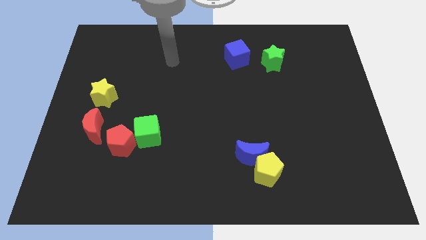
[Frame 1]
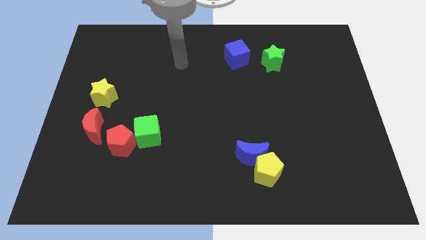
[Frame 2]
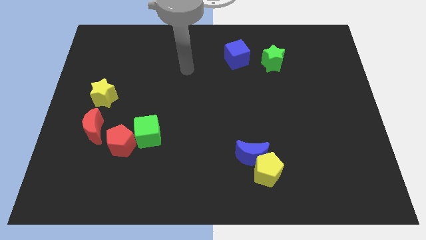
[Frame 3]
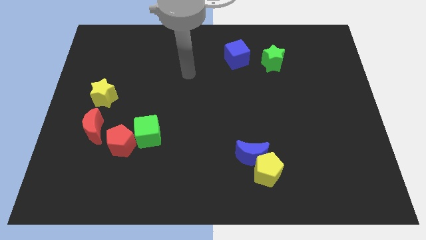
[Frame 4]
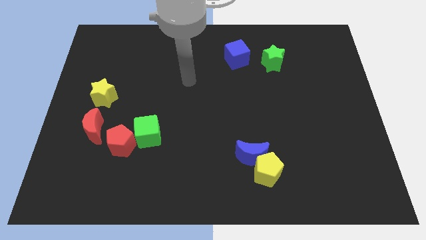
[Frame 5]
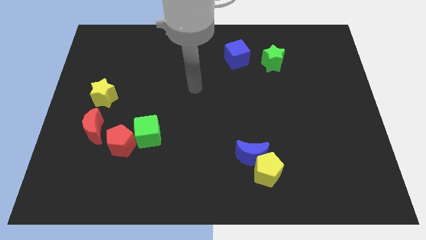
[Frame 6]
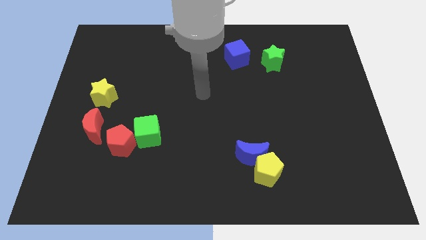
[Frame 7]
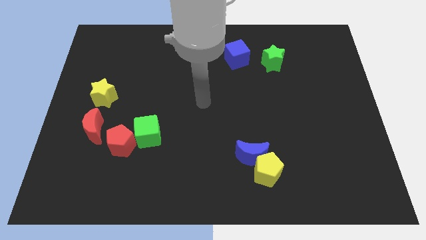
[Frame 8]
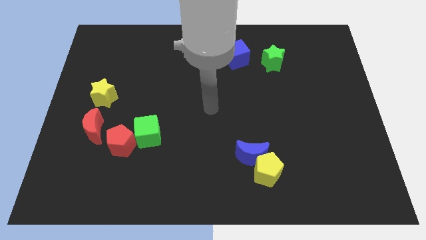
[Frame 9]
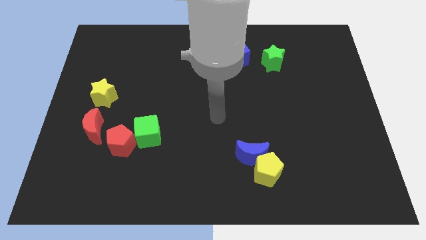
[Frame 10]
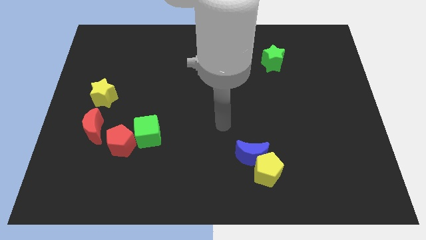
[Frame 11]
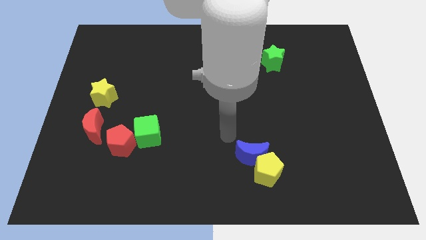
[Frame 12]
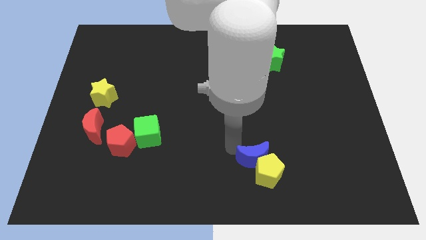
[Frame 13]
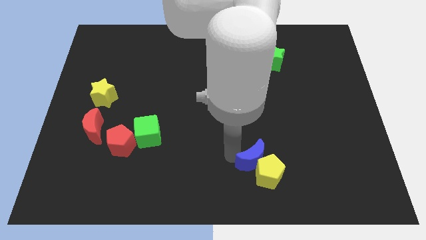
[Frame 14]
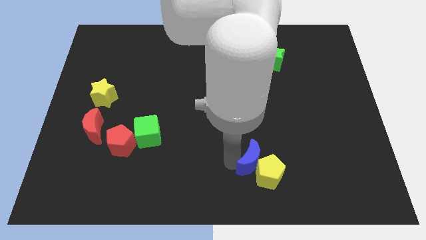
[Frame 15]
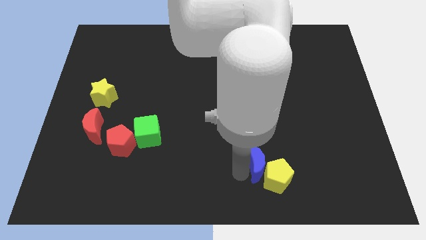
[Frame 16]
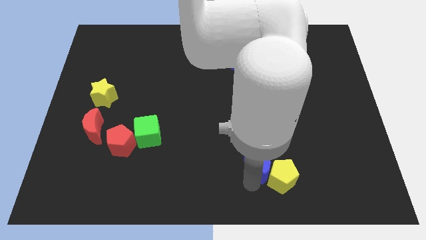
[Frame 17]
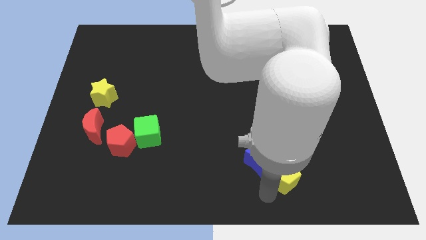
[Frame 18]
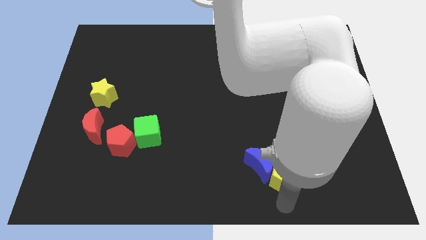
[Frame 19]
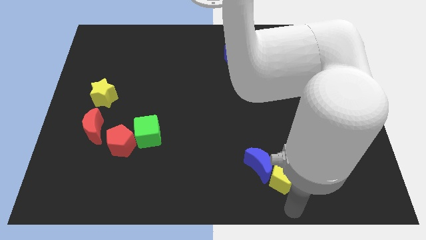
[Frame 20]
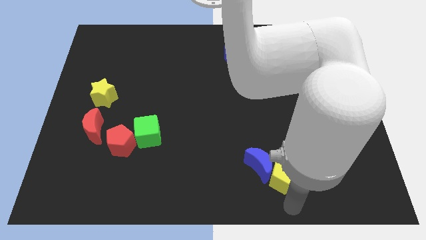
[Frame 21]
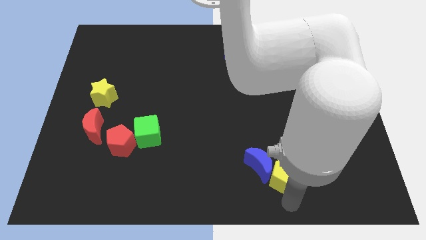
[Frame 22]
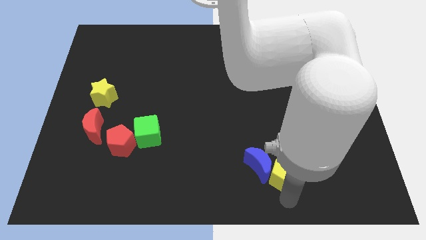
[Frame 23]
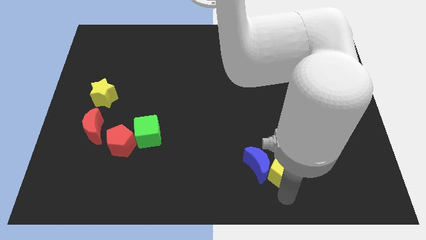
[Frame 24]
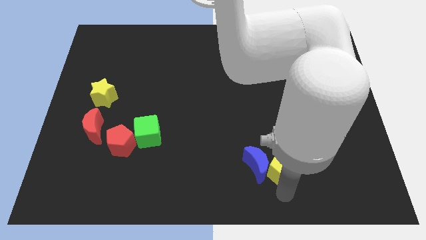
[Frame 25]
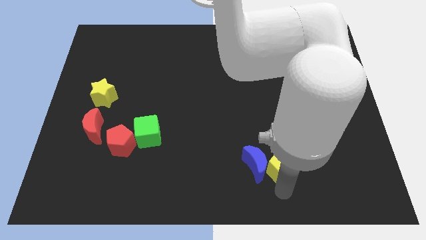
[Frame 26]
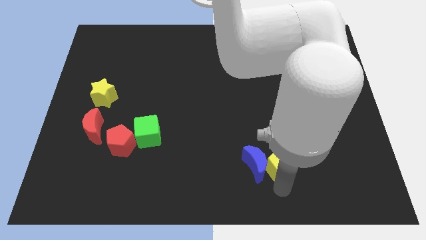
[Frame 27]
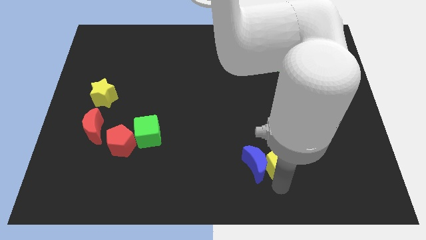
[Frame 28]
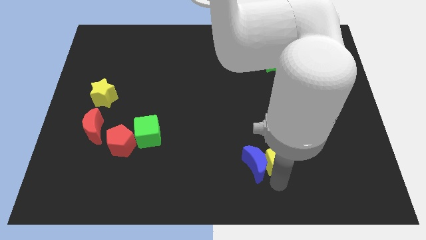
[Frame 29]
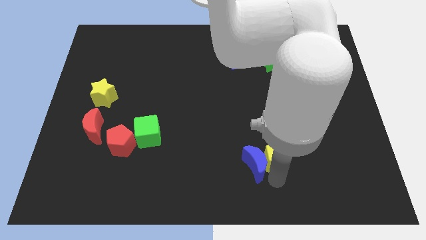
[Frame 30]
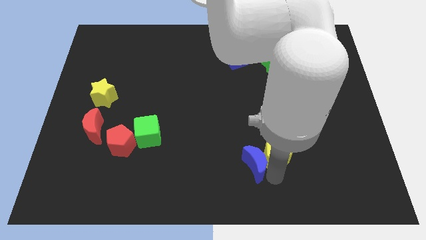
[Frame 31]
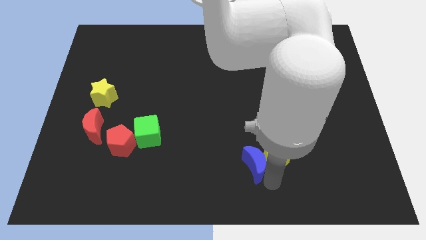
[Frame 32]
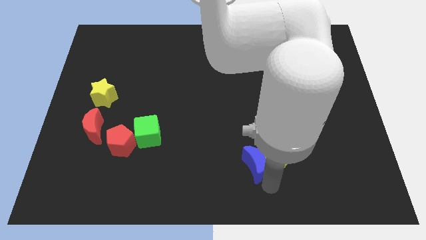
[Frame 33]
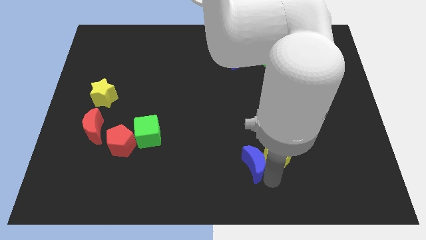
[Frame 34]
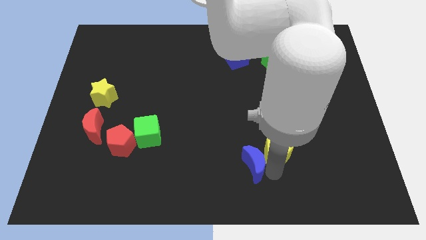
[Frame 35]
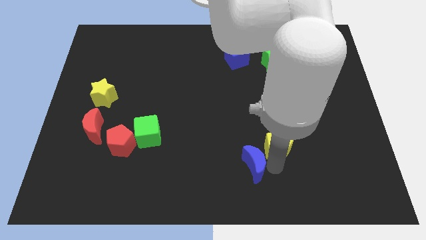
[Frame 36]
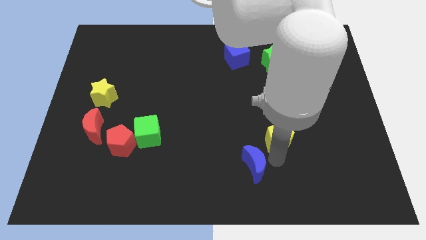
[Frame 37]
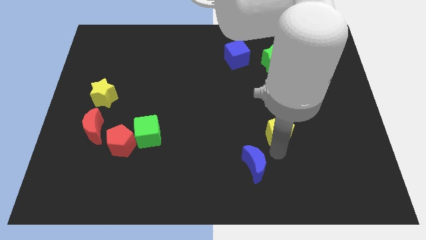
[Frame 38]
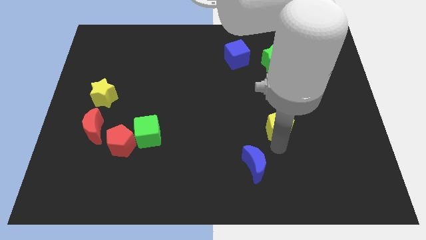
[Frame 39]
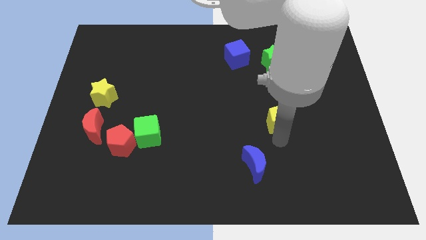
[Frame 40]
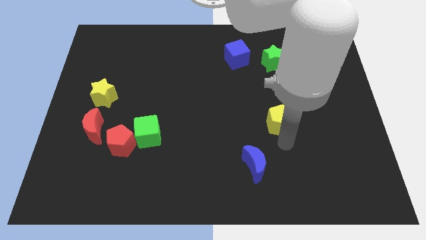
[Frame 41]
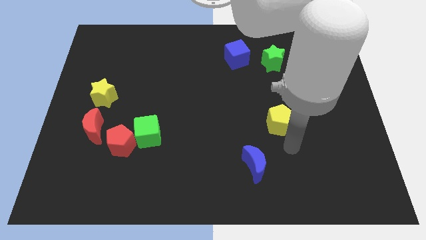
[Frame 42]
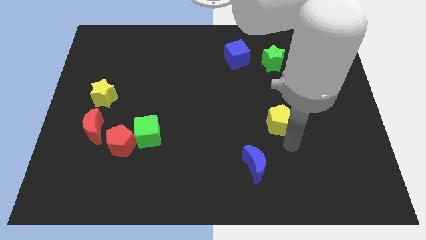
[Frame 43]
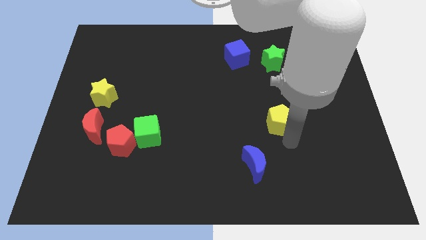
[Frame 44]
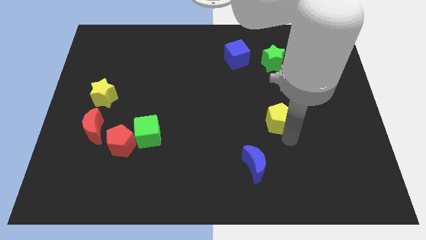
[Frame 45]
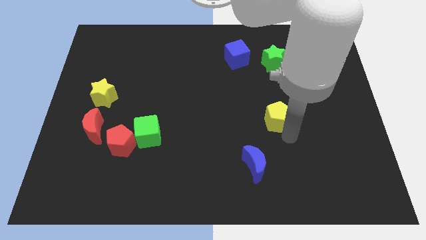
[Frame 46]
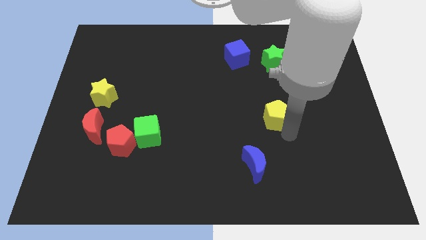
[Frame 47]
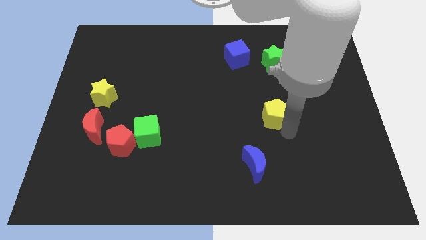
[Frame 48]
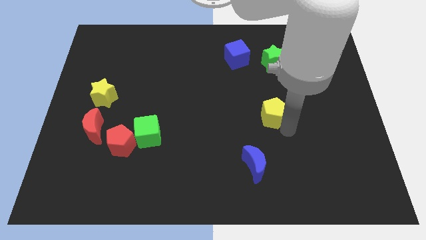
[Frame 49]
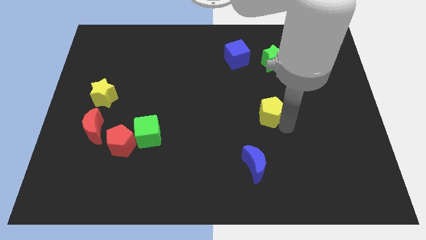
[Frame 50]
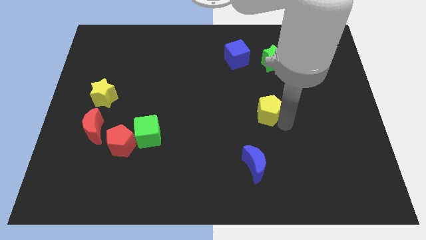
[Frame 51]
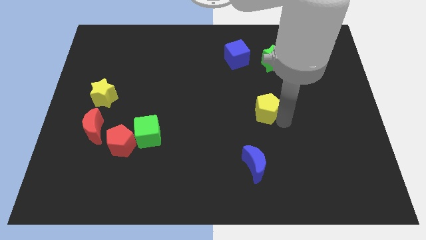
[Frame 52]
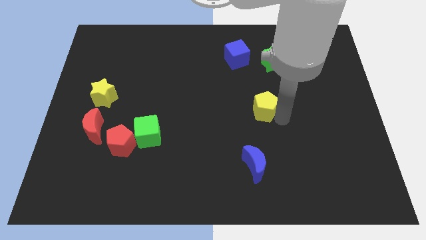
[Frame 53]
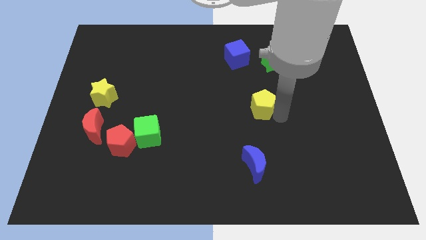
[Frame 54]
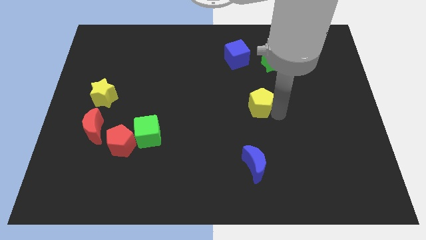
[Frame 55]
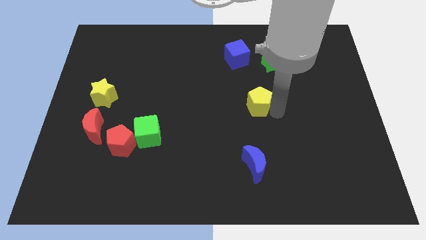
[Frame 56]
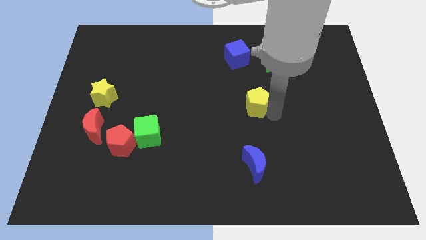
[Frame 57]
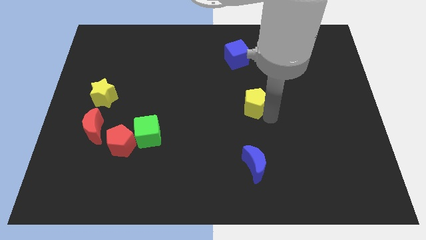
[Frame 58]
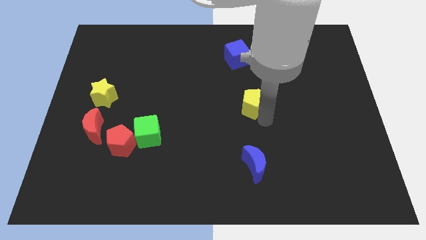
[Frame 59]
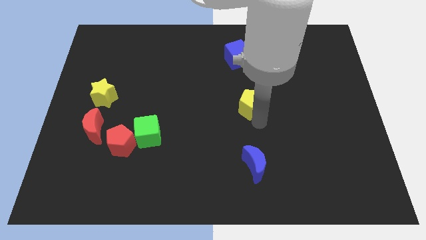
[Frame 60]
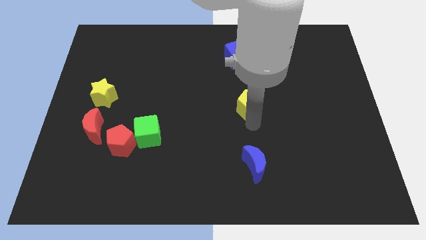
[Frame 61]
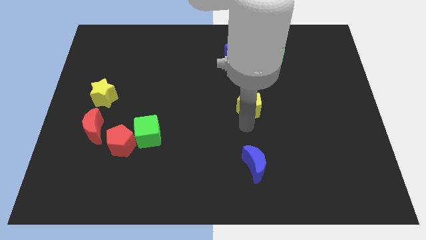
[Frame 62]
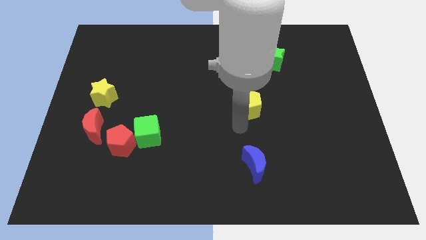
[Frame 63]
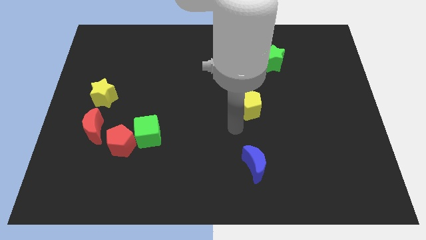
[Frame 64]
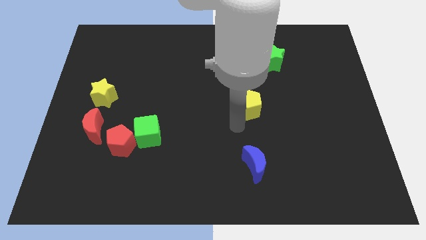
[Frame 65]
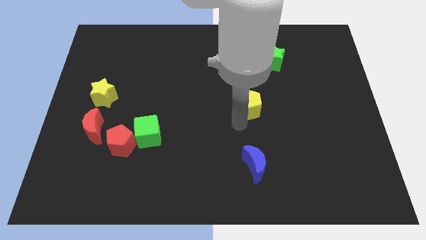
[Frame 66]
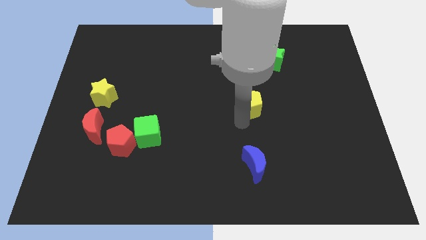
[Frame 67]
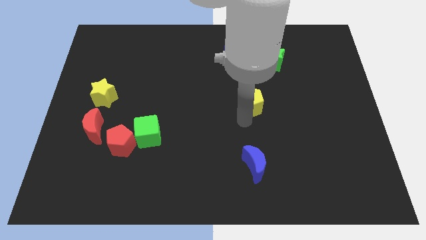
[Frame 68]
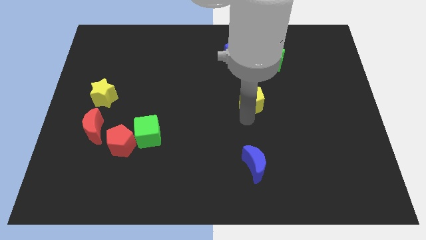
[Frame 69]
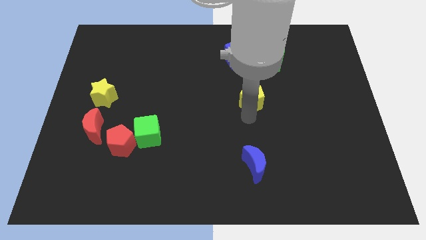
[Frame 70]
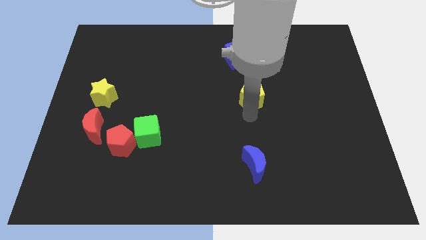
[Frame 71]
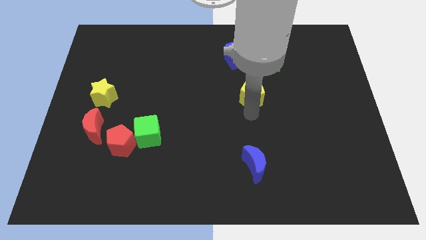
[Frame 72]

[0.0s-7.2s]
push the yellow pentagon upwards

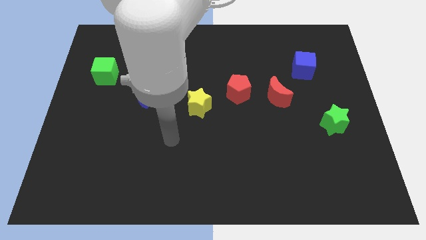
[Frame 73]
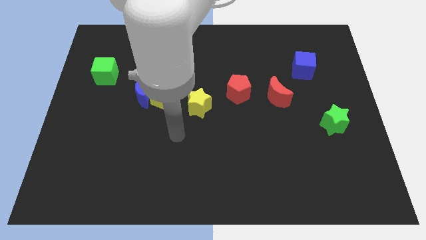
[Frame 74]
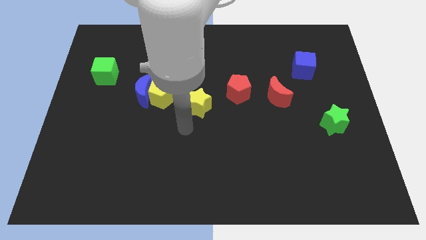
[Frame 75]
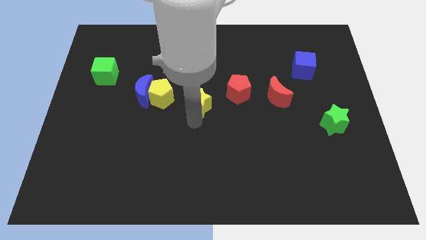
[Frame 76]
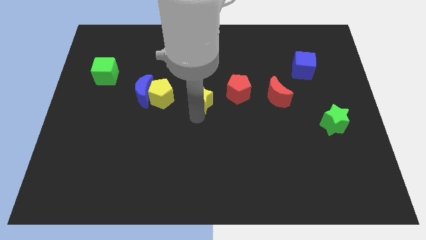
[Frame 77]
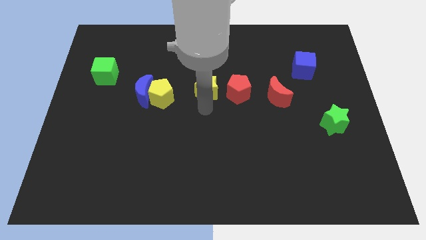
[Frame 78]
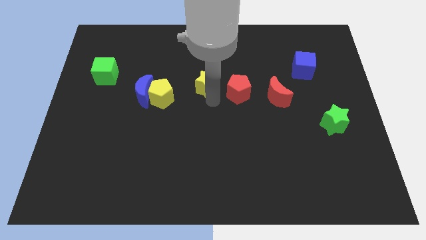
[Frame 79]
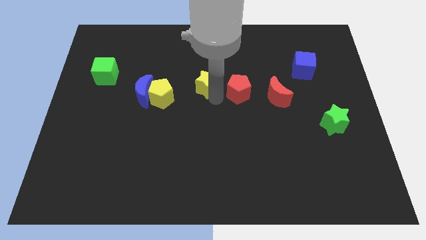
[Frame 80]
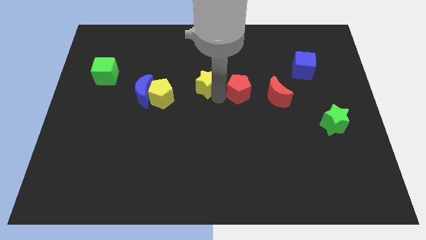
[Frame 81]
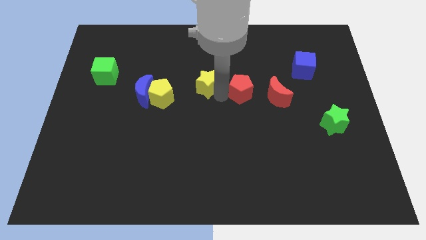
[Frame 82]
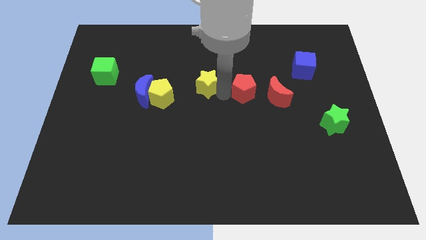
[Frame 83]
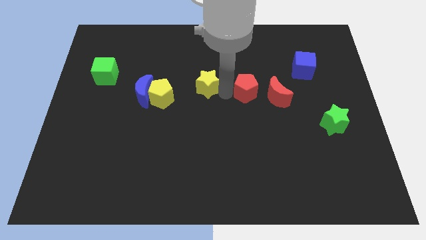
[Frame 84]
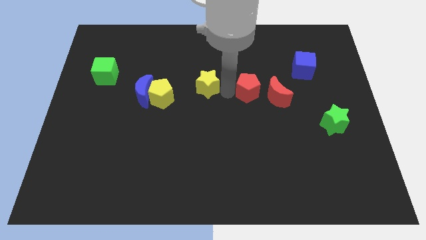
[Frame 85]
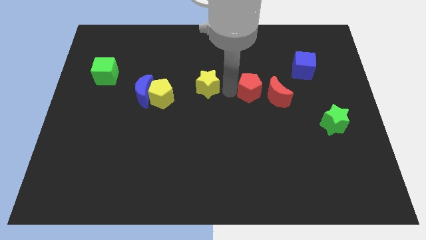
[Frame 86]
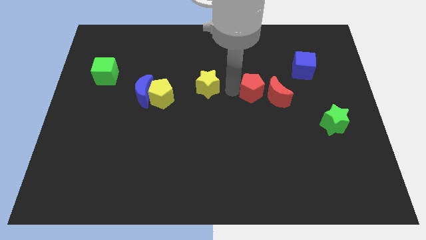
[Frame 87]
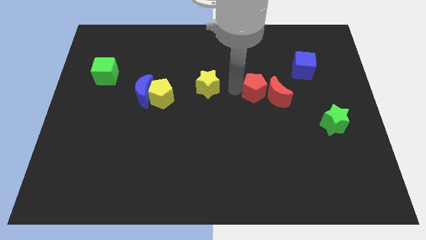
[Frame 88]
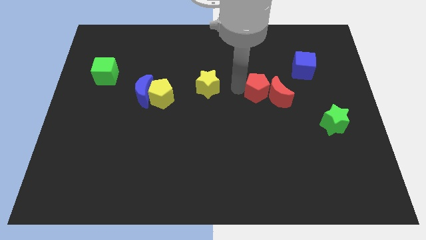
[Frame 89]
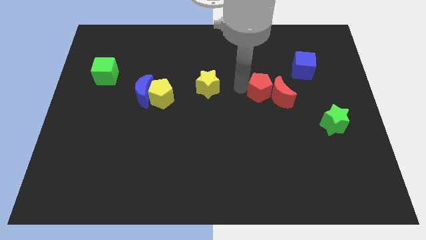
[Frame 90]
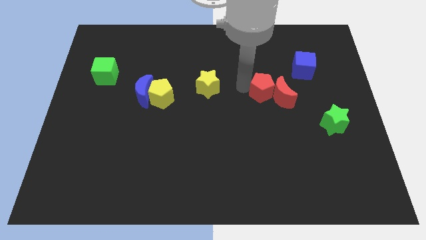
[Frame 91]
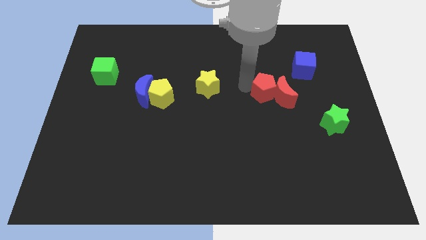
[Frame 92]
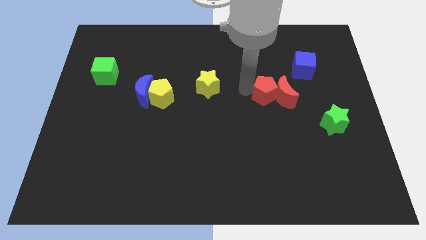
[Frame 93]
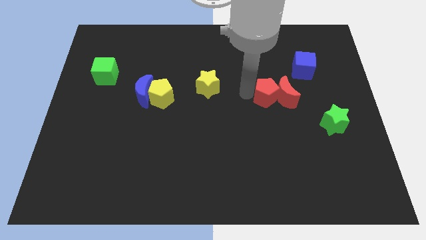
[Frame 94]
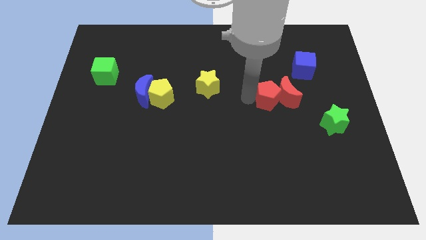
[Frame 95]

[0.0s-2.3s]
slide the red pentagon a bit right
